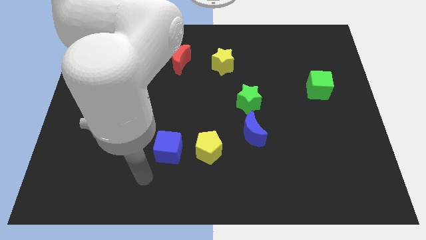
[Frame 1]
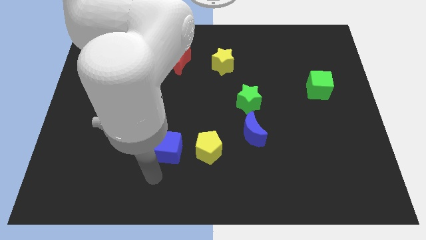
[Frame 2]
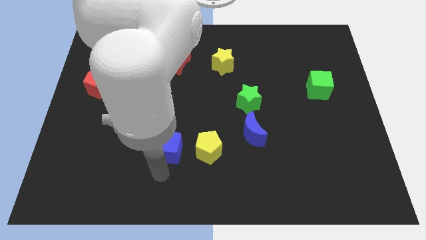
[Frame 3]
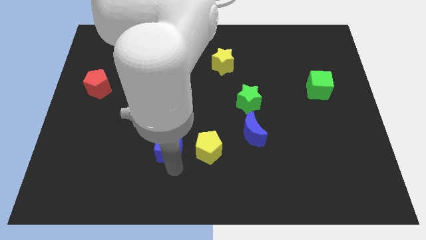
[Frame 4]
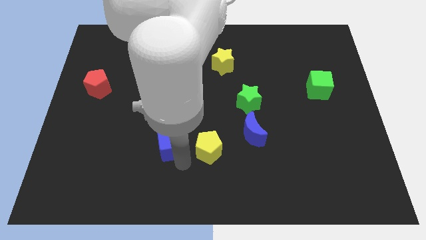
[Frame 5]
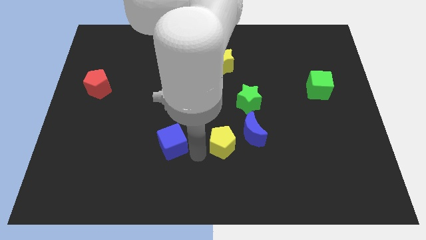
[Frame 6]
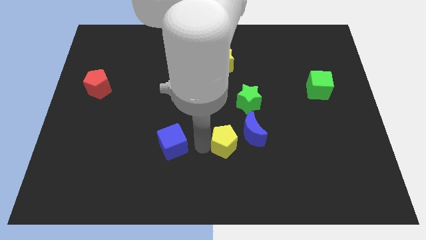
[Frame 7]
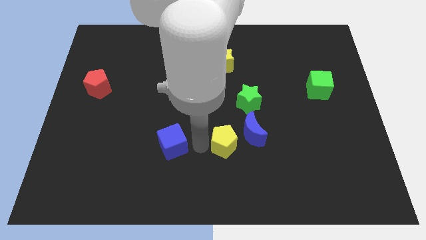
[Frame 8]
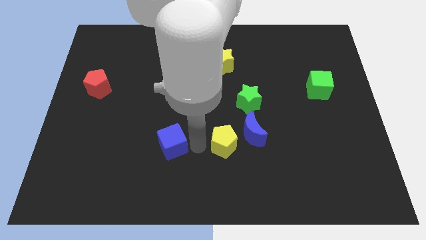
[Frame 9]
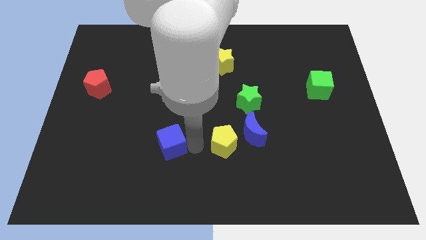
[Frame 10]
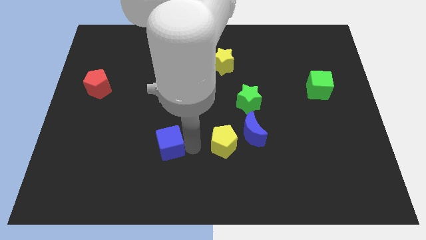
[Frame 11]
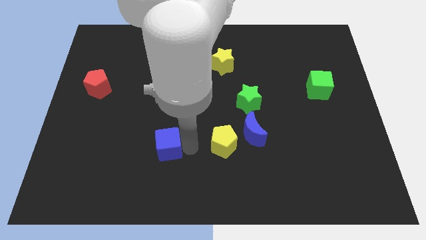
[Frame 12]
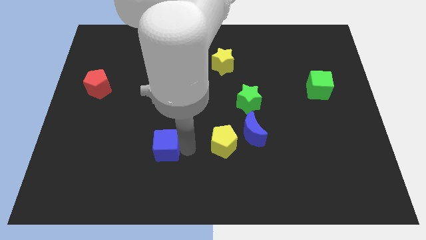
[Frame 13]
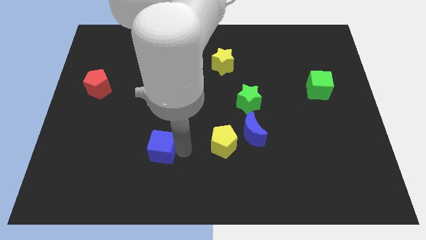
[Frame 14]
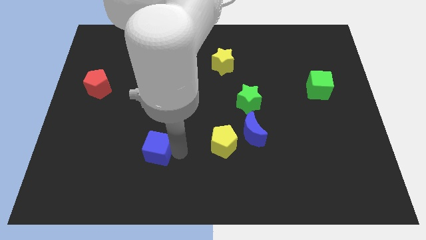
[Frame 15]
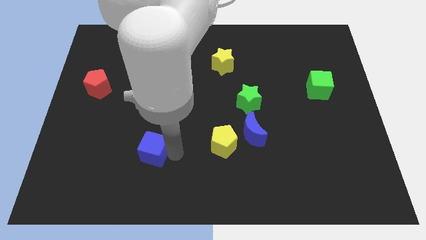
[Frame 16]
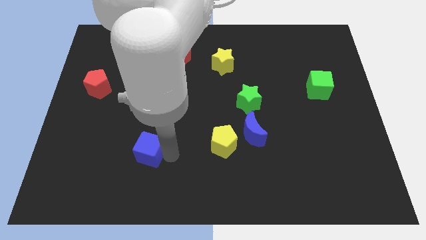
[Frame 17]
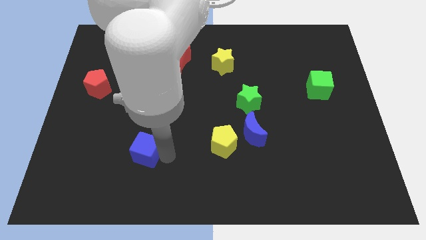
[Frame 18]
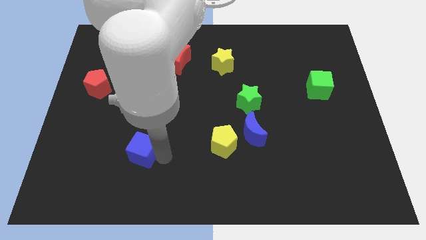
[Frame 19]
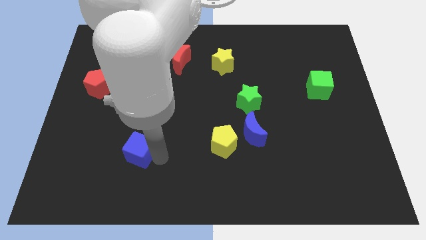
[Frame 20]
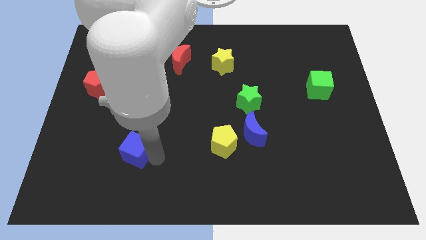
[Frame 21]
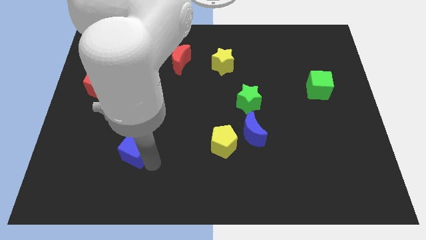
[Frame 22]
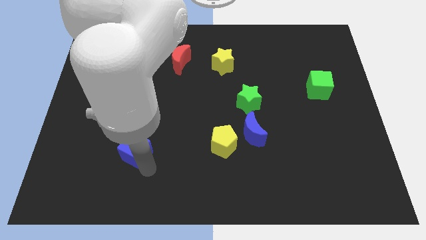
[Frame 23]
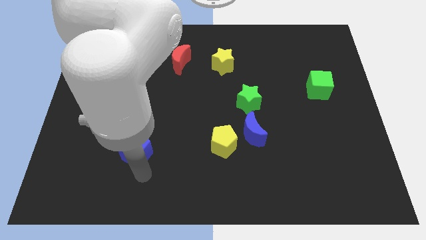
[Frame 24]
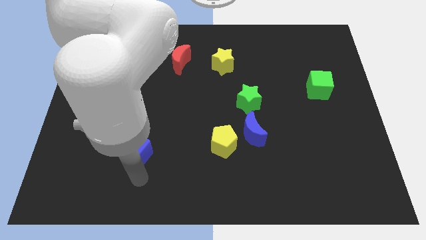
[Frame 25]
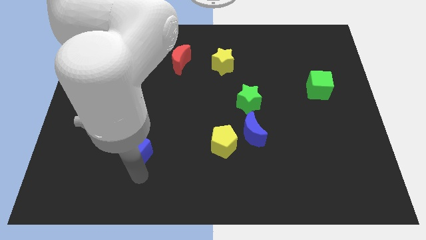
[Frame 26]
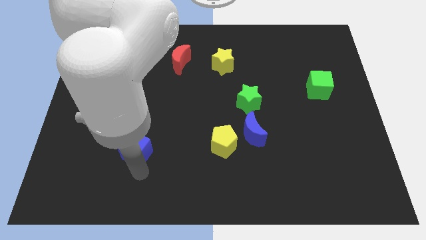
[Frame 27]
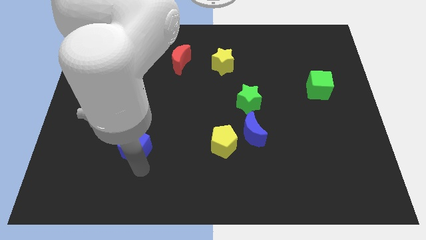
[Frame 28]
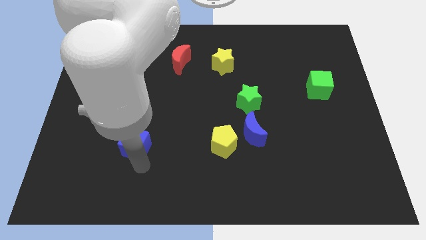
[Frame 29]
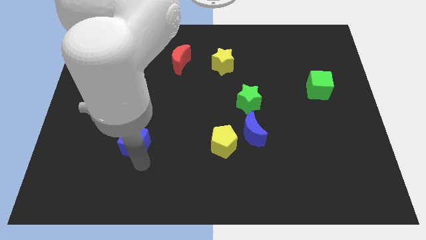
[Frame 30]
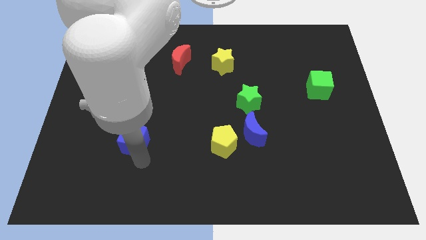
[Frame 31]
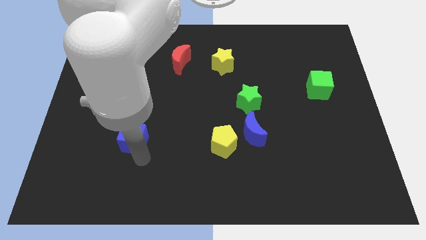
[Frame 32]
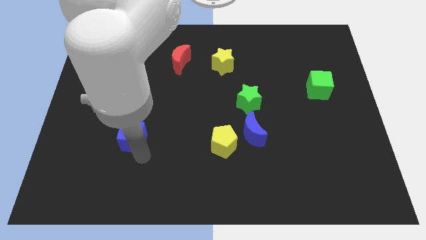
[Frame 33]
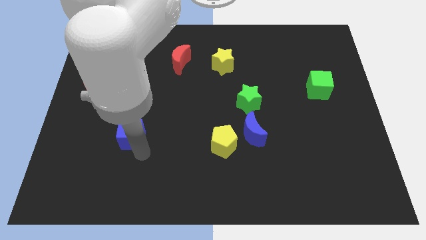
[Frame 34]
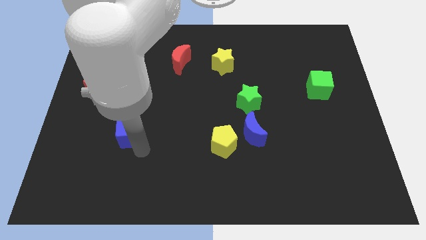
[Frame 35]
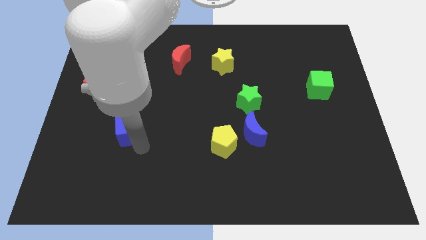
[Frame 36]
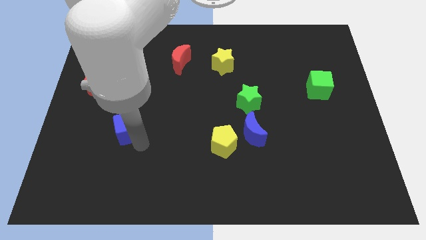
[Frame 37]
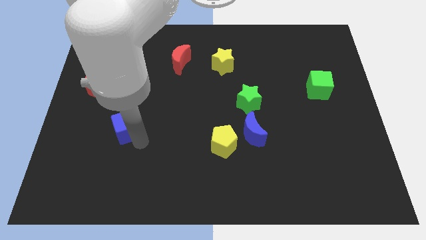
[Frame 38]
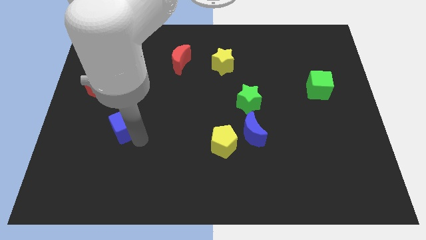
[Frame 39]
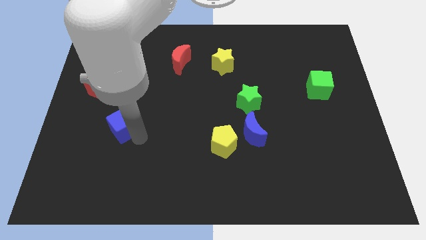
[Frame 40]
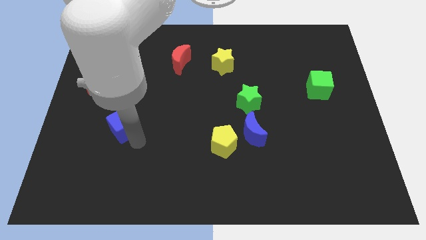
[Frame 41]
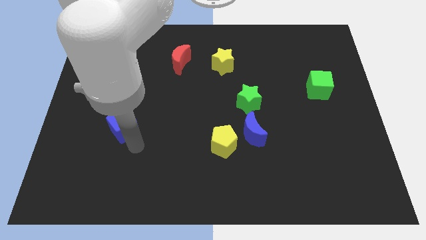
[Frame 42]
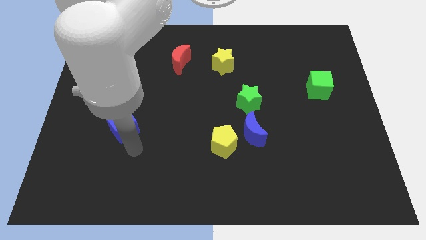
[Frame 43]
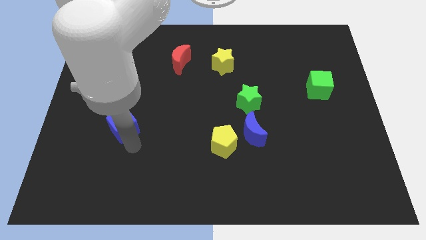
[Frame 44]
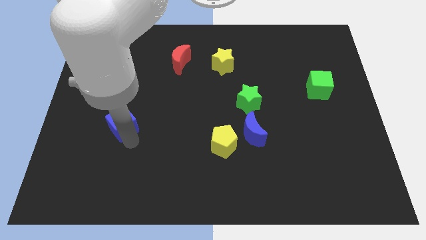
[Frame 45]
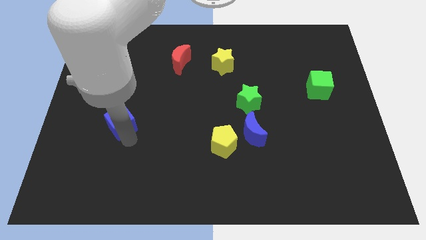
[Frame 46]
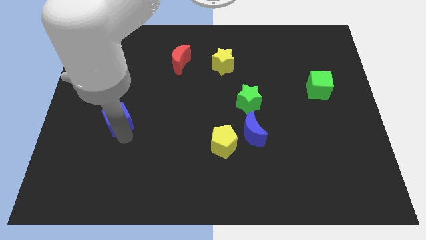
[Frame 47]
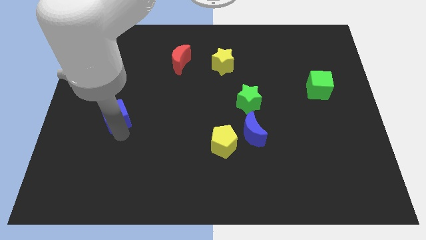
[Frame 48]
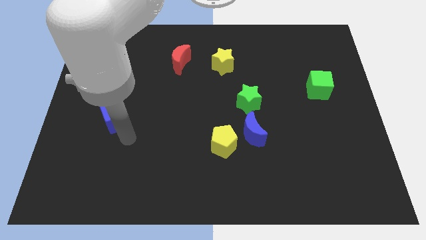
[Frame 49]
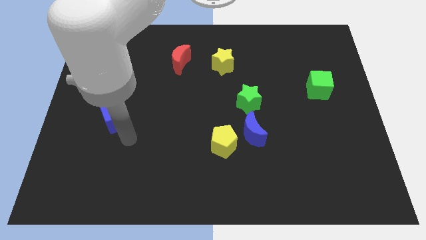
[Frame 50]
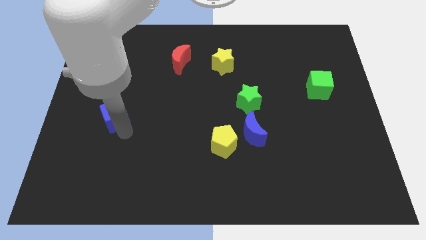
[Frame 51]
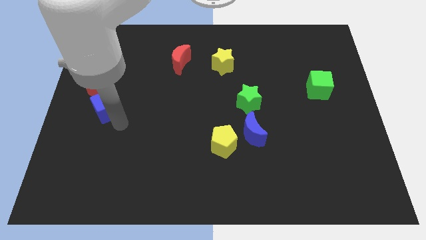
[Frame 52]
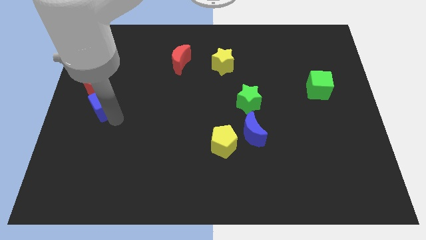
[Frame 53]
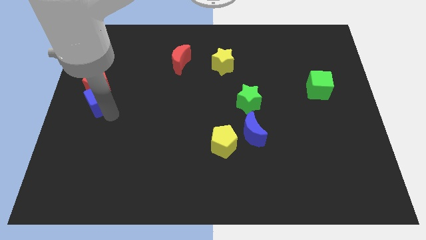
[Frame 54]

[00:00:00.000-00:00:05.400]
push the blue cube to the red pentagon

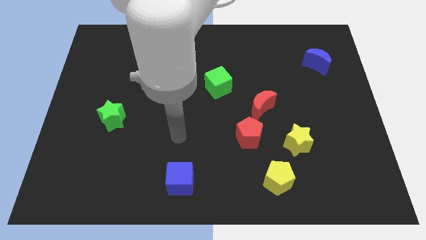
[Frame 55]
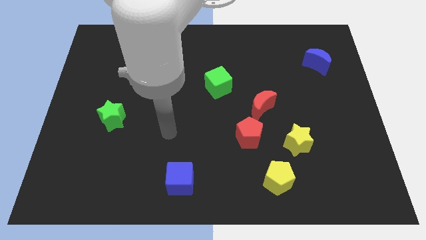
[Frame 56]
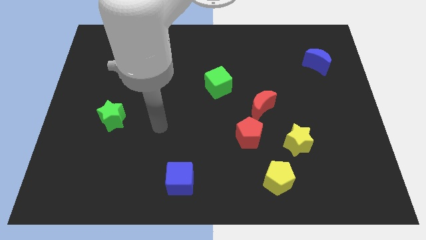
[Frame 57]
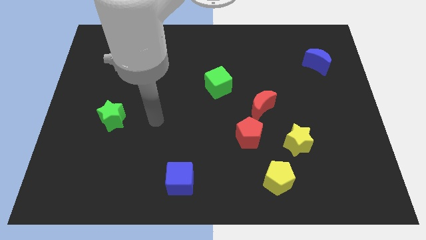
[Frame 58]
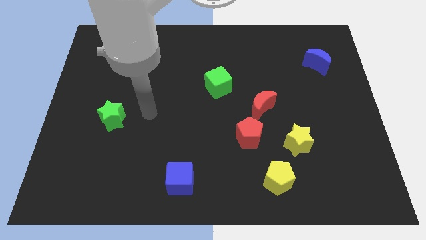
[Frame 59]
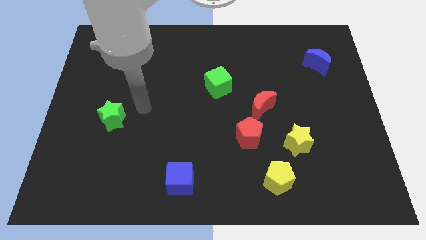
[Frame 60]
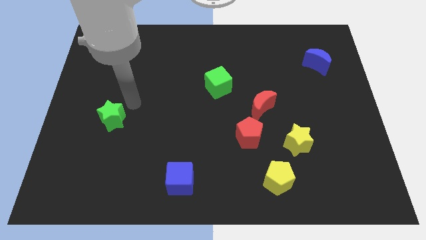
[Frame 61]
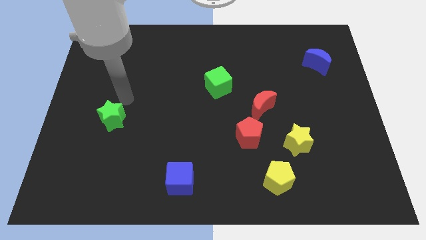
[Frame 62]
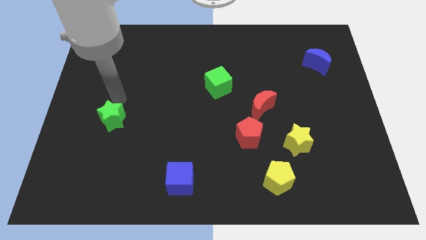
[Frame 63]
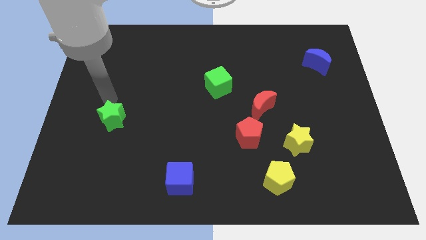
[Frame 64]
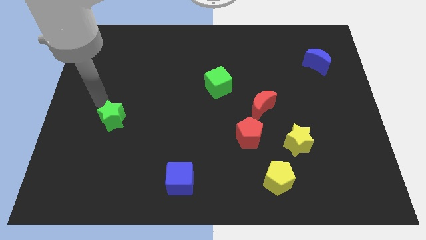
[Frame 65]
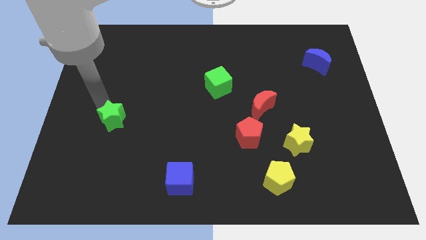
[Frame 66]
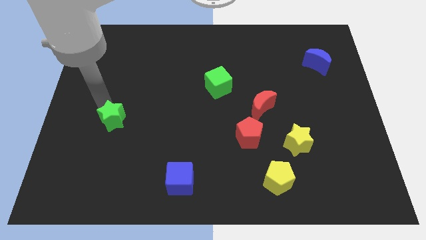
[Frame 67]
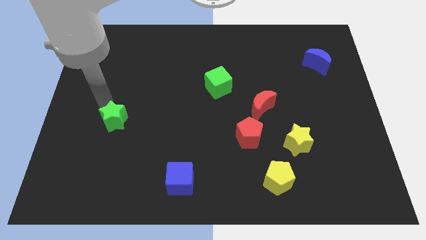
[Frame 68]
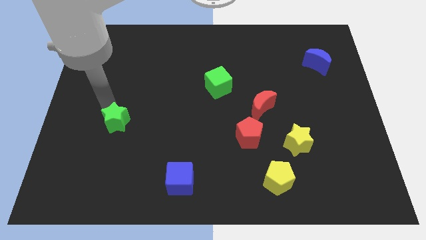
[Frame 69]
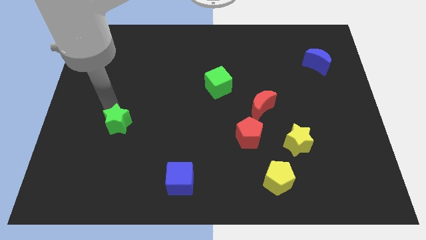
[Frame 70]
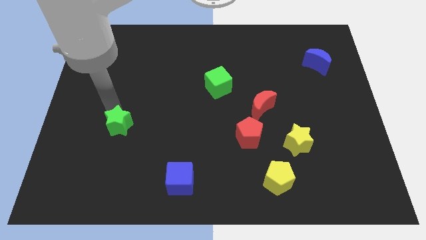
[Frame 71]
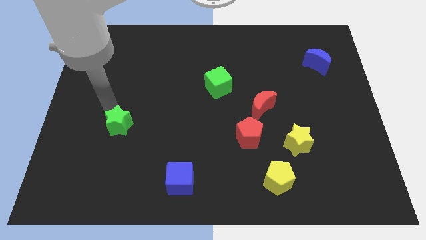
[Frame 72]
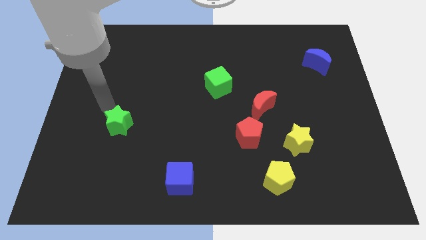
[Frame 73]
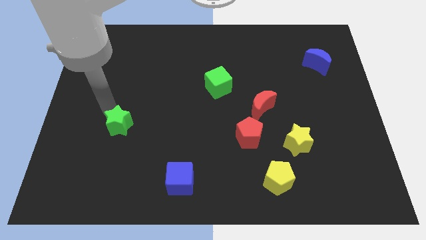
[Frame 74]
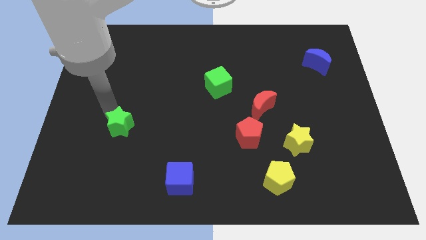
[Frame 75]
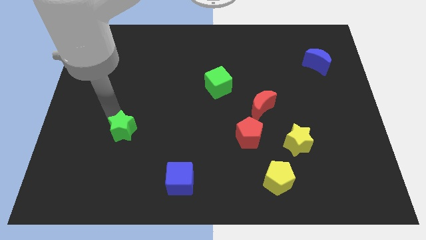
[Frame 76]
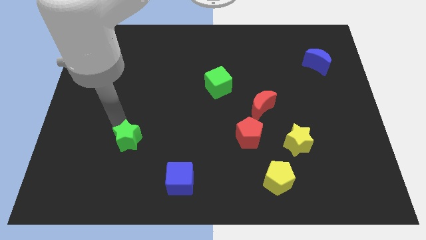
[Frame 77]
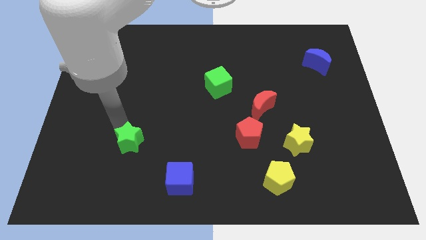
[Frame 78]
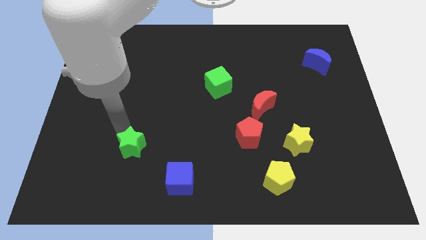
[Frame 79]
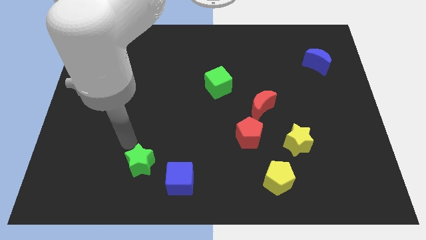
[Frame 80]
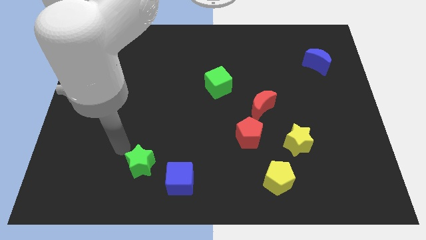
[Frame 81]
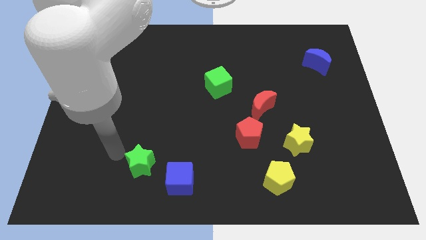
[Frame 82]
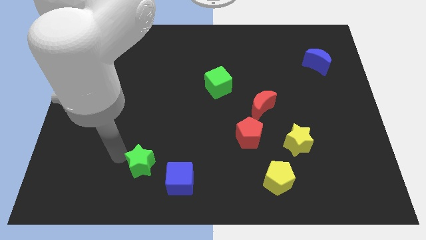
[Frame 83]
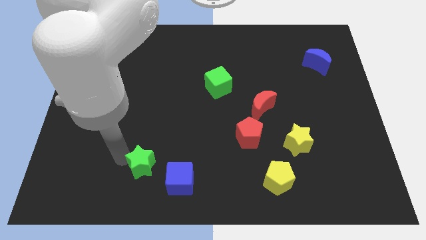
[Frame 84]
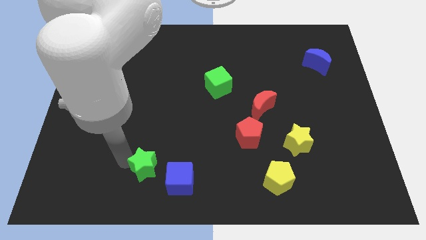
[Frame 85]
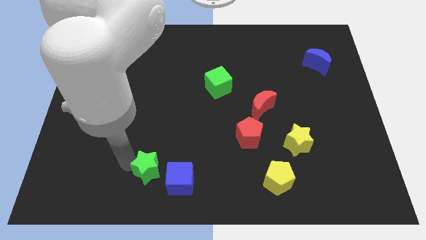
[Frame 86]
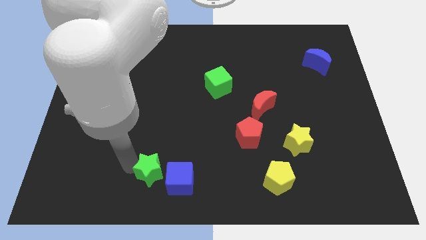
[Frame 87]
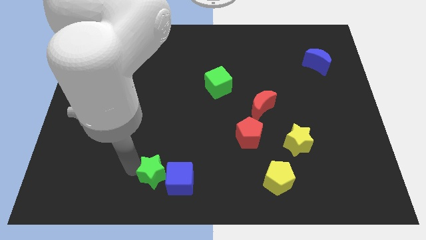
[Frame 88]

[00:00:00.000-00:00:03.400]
push the green star towards the blue cube
